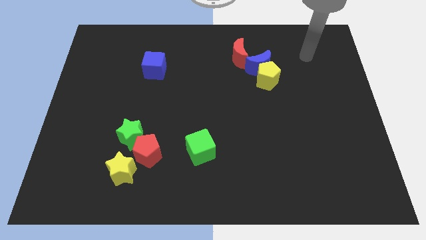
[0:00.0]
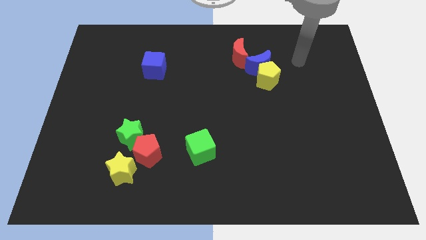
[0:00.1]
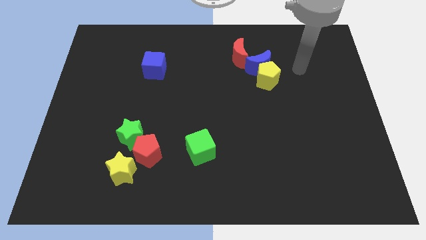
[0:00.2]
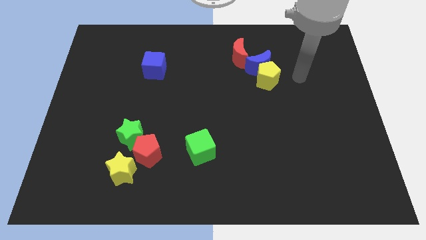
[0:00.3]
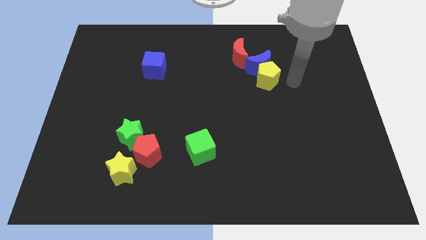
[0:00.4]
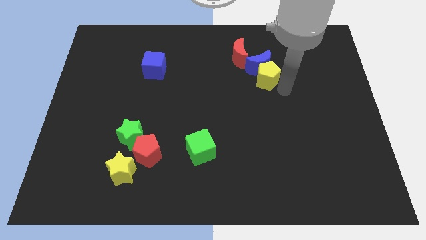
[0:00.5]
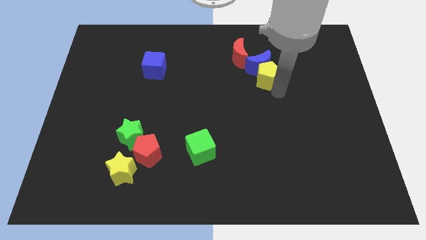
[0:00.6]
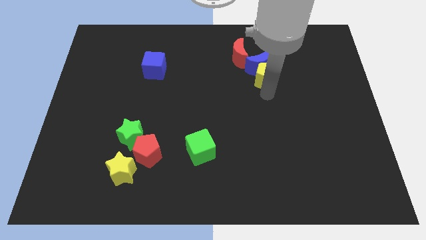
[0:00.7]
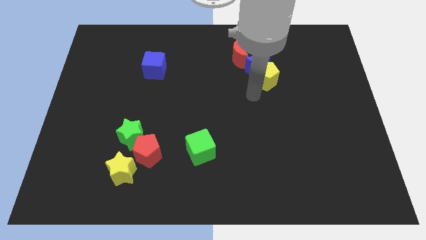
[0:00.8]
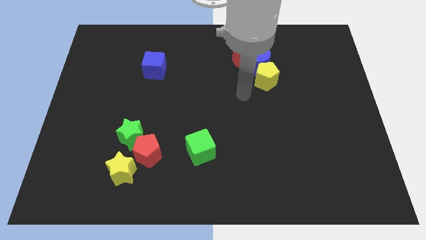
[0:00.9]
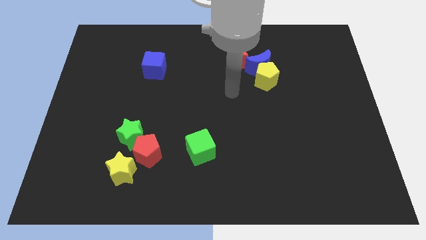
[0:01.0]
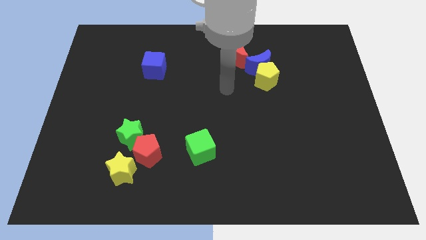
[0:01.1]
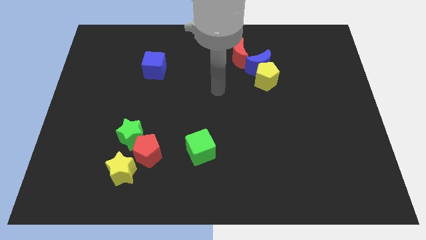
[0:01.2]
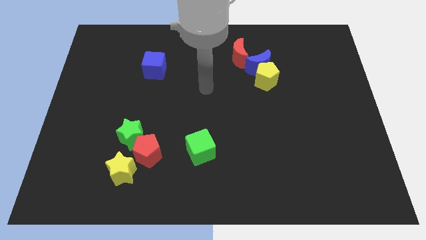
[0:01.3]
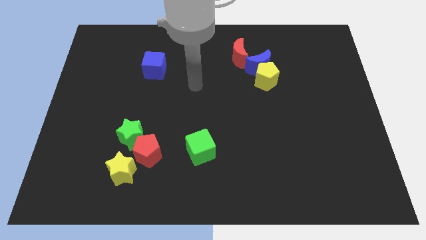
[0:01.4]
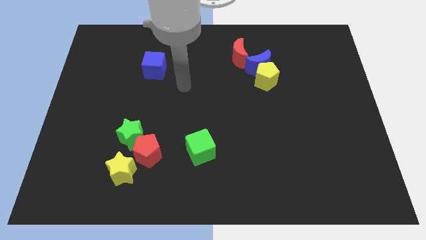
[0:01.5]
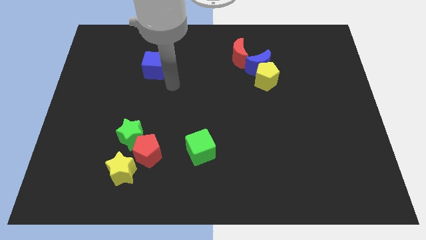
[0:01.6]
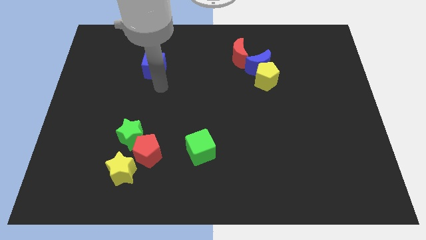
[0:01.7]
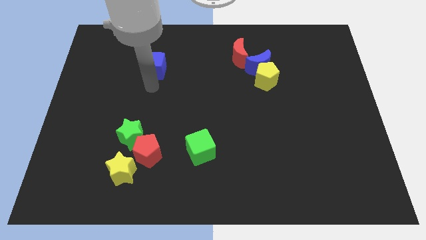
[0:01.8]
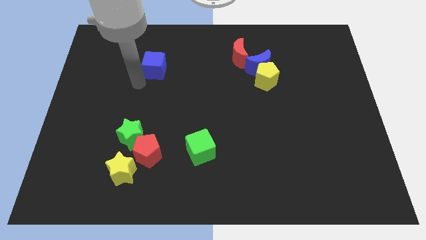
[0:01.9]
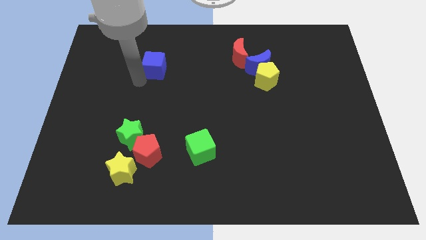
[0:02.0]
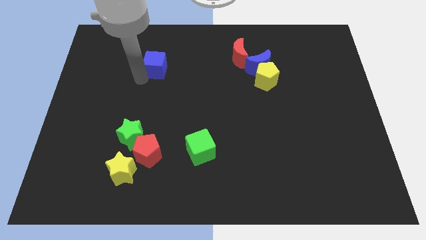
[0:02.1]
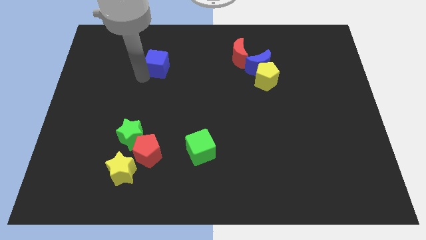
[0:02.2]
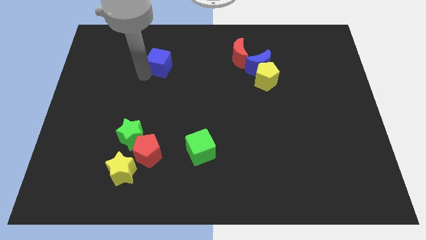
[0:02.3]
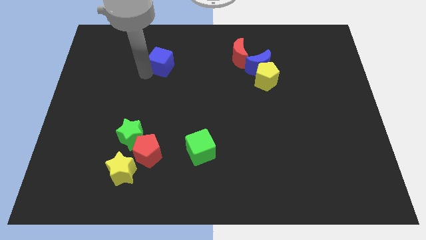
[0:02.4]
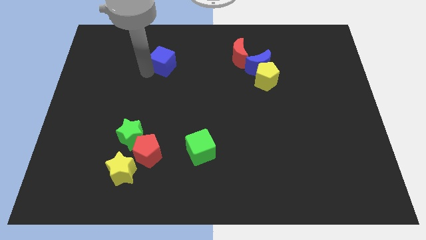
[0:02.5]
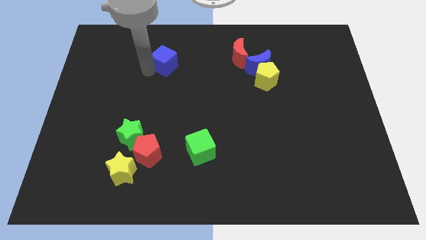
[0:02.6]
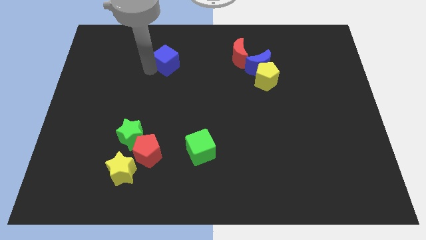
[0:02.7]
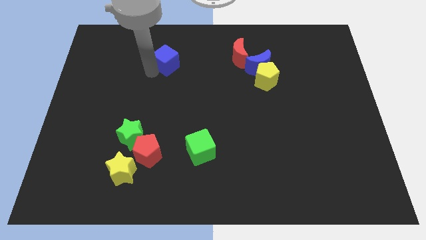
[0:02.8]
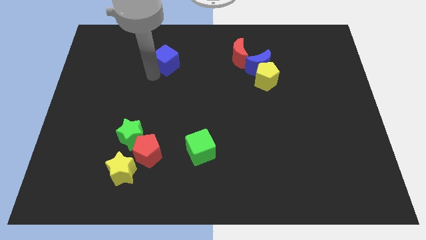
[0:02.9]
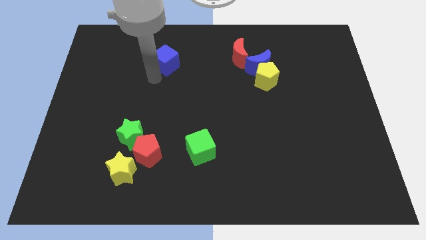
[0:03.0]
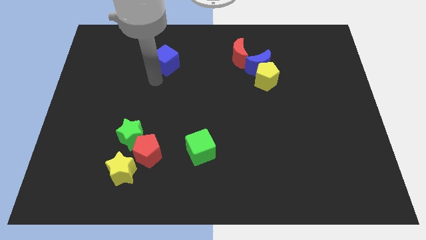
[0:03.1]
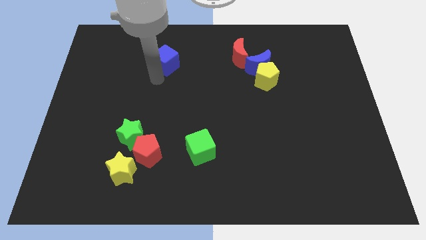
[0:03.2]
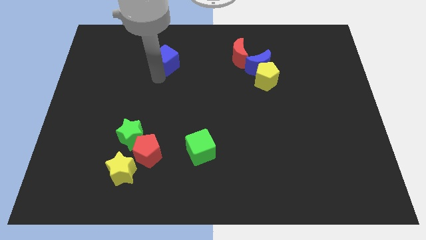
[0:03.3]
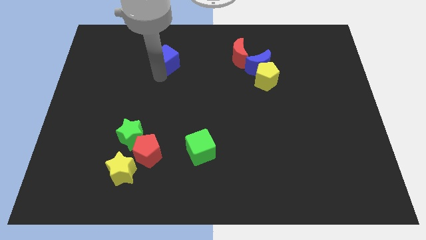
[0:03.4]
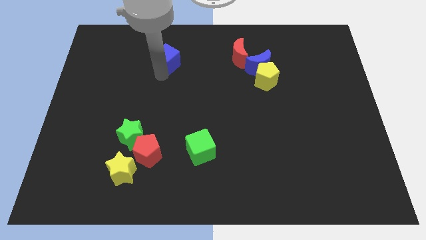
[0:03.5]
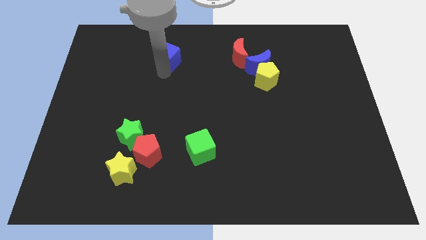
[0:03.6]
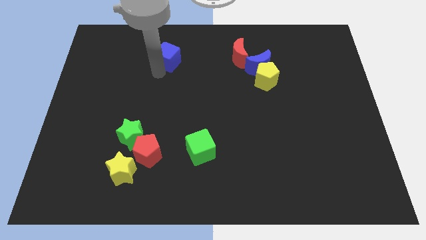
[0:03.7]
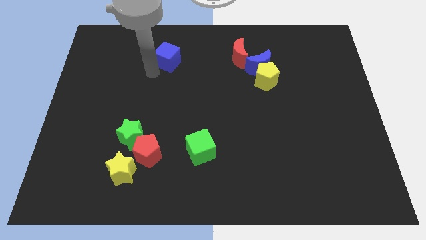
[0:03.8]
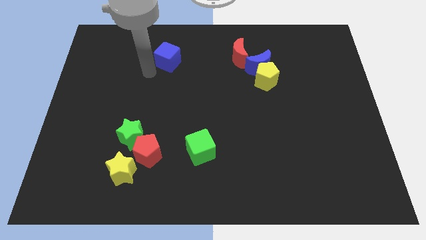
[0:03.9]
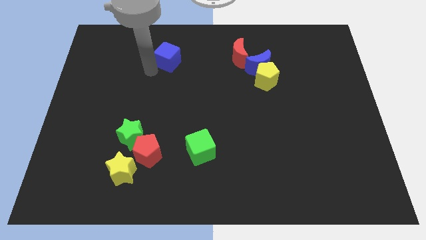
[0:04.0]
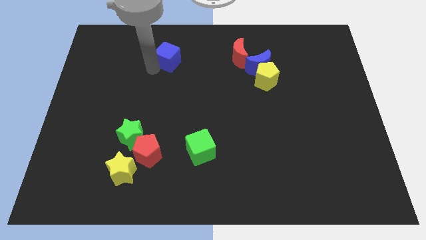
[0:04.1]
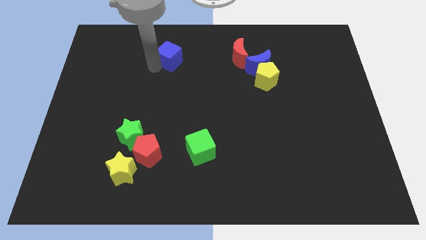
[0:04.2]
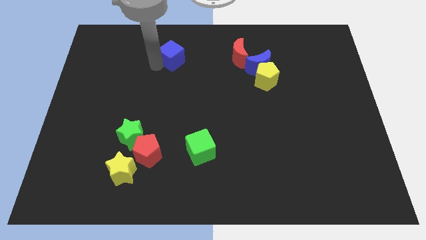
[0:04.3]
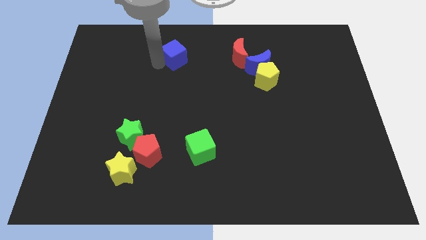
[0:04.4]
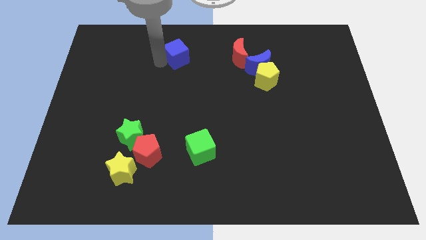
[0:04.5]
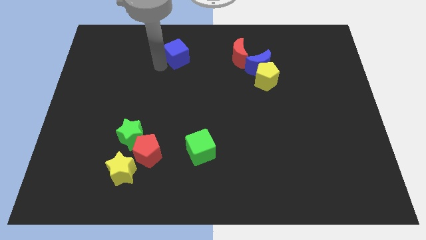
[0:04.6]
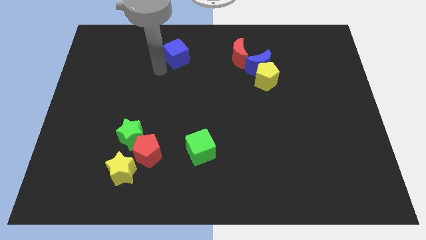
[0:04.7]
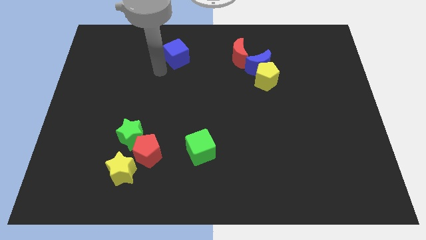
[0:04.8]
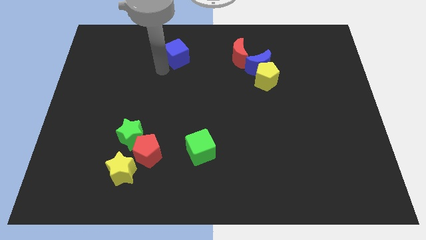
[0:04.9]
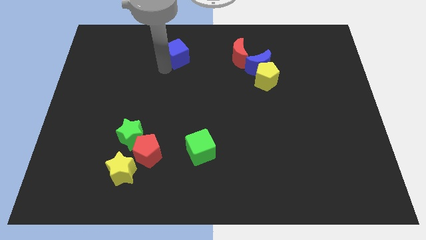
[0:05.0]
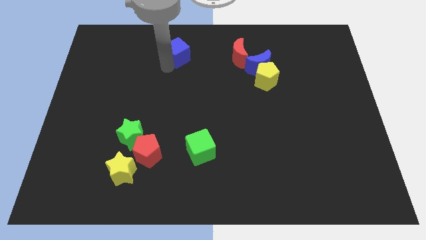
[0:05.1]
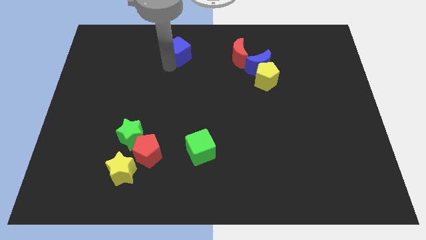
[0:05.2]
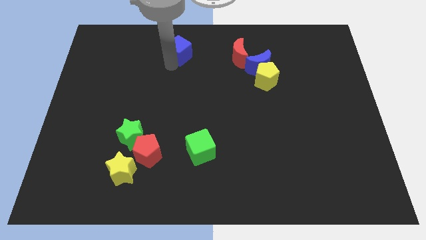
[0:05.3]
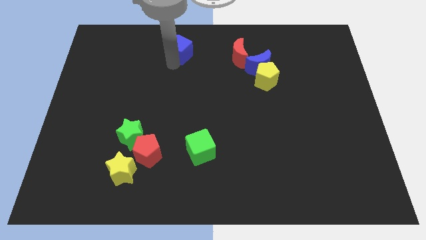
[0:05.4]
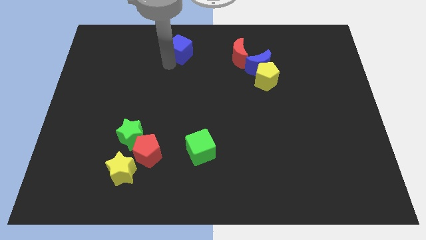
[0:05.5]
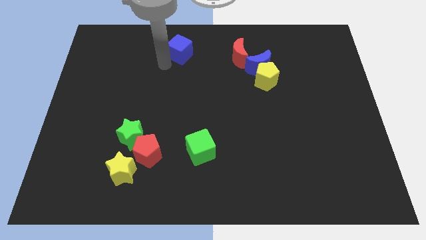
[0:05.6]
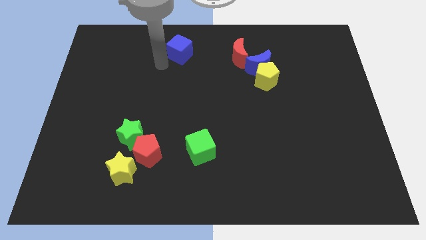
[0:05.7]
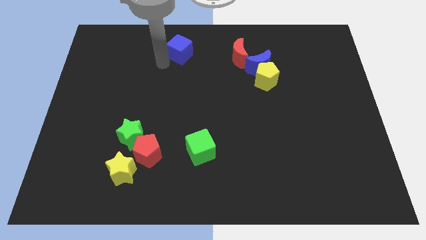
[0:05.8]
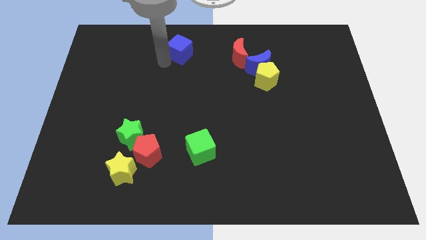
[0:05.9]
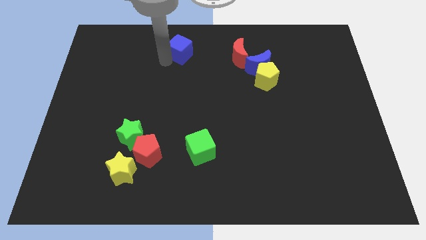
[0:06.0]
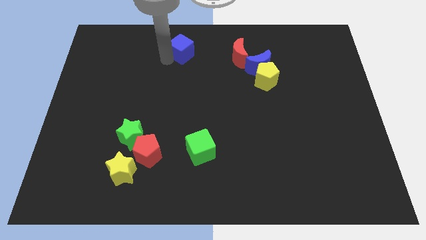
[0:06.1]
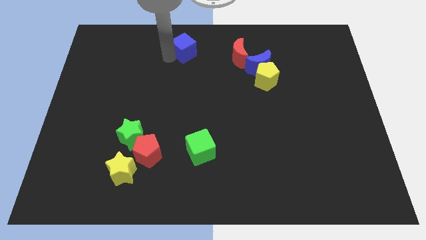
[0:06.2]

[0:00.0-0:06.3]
slide the blue cube to the top side

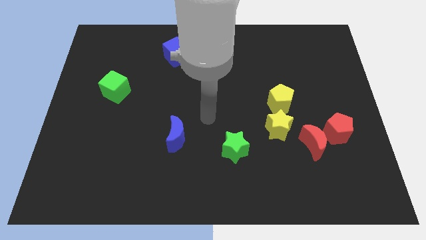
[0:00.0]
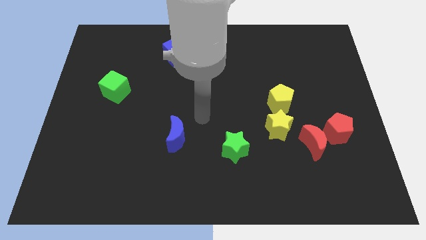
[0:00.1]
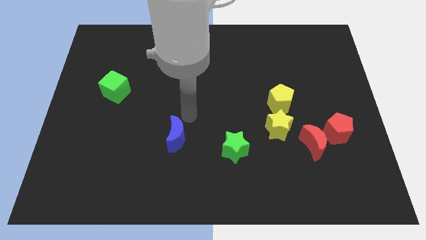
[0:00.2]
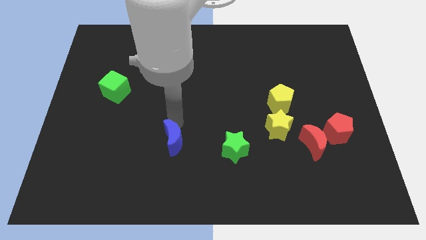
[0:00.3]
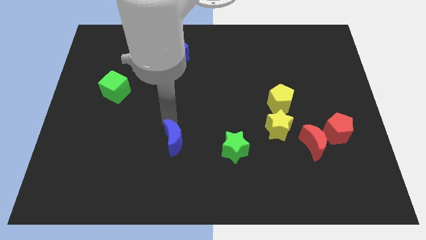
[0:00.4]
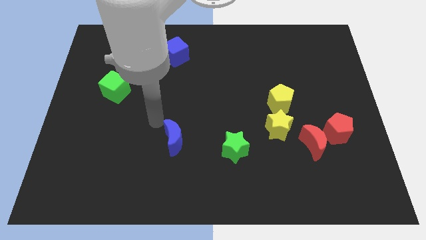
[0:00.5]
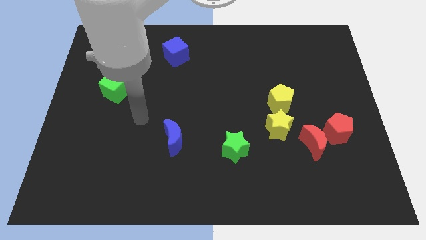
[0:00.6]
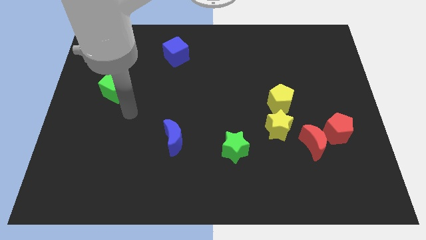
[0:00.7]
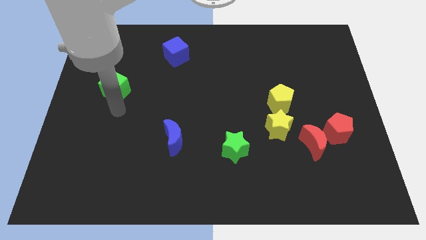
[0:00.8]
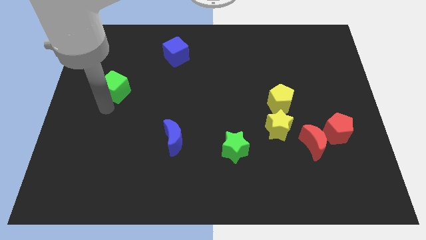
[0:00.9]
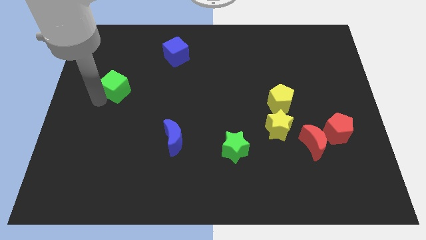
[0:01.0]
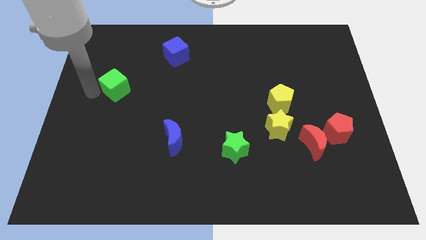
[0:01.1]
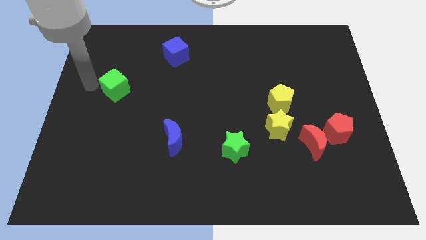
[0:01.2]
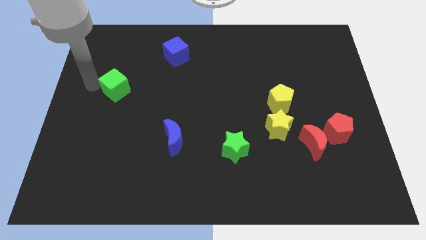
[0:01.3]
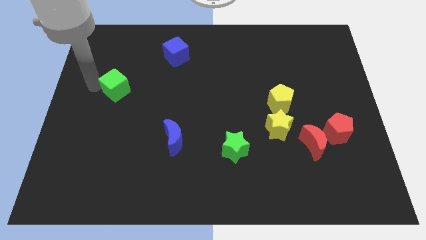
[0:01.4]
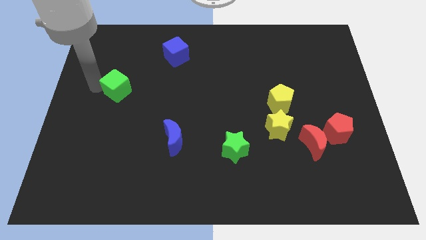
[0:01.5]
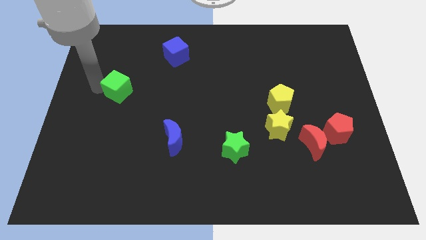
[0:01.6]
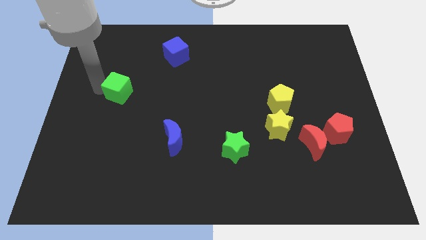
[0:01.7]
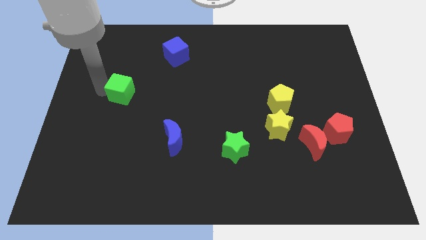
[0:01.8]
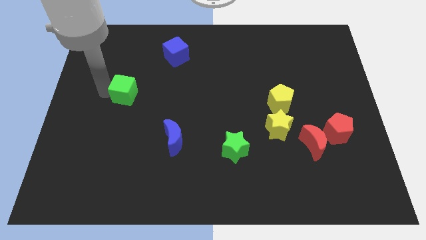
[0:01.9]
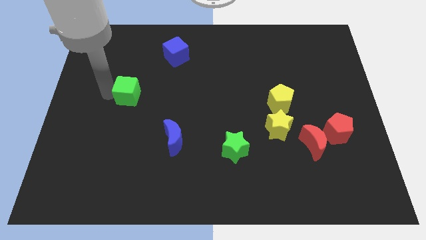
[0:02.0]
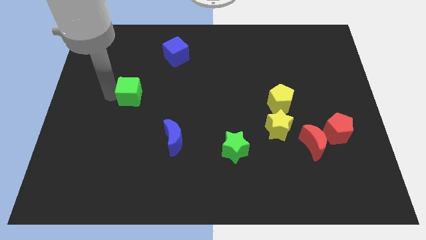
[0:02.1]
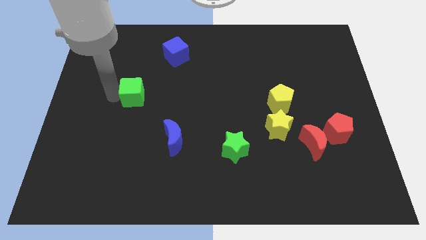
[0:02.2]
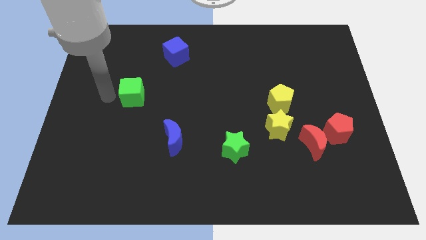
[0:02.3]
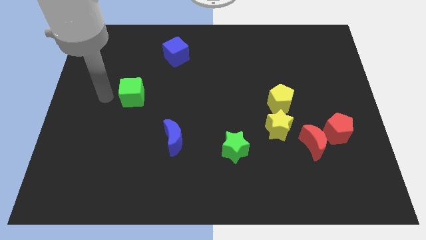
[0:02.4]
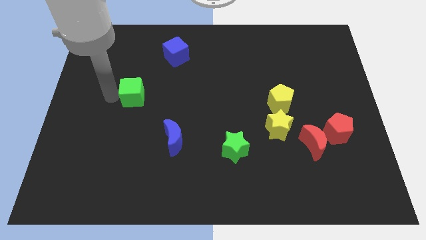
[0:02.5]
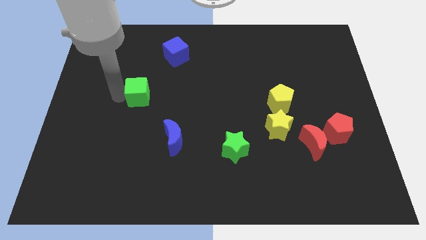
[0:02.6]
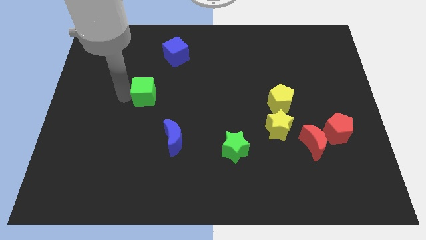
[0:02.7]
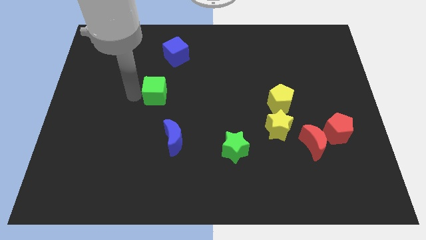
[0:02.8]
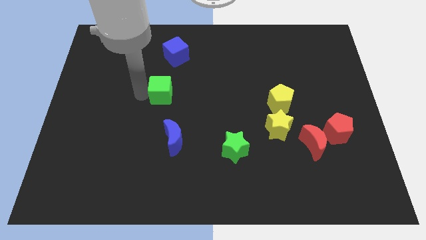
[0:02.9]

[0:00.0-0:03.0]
move the green cube to the middle
